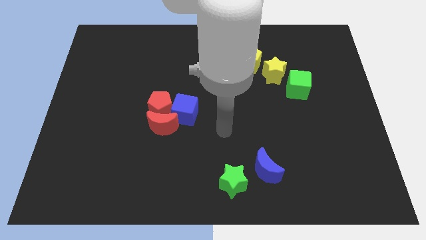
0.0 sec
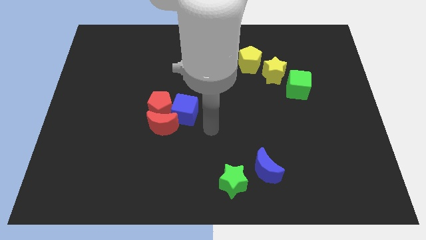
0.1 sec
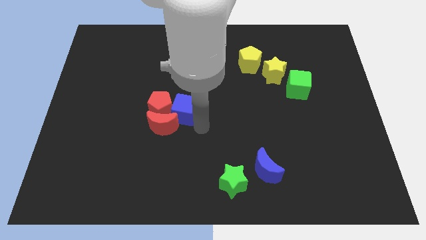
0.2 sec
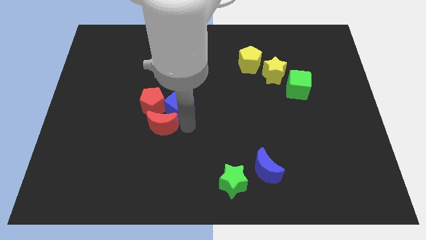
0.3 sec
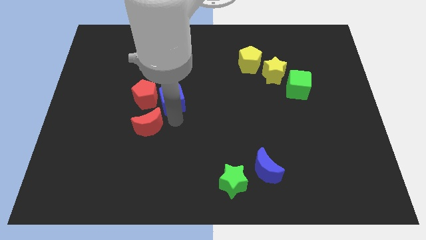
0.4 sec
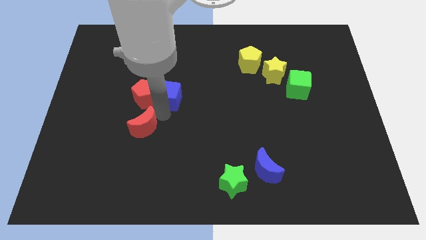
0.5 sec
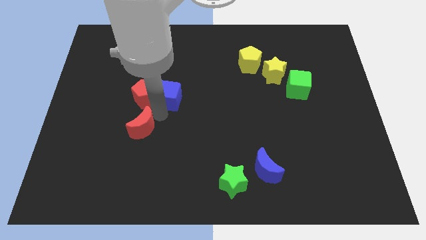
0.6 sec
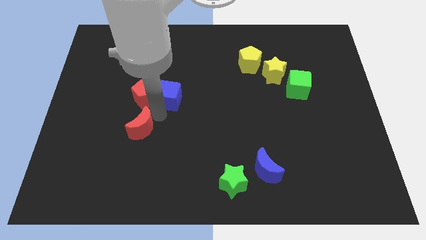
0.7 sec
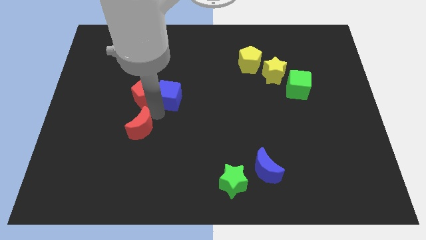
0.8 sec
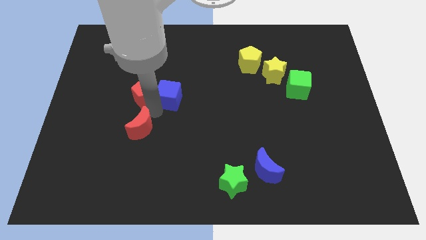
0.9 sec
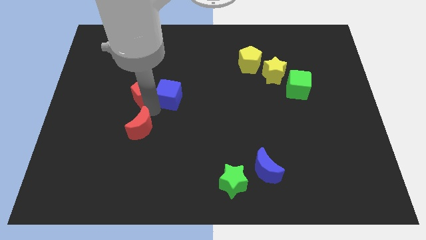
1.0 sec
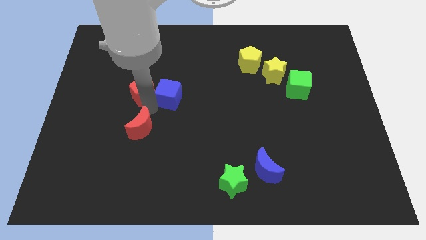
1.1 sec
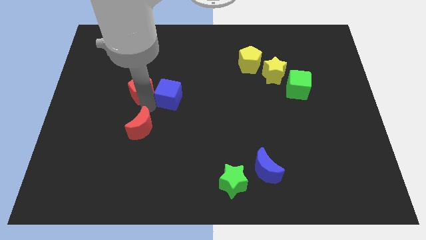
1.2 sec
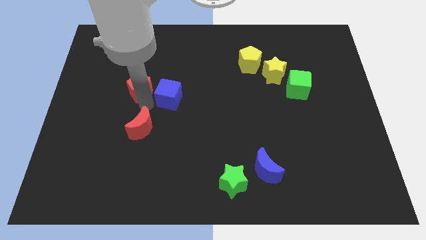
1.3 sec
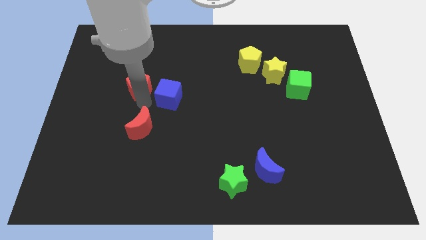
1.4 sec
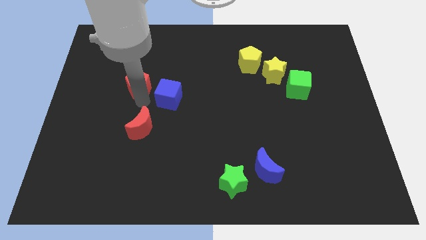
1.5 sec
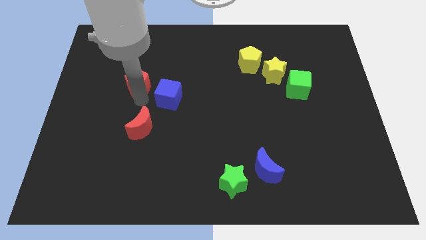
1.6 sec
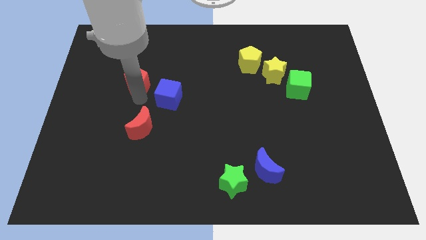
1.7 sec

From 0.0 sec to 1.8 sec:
separate the red pentagon from the red moon and blue cube

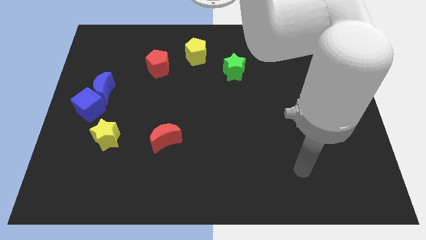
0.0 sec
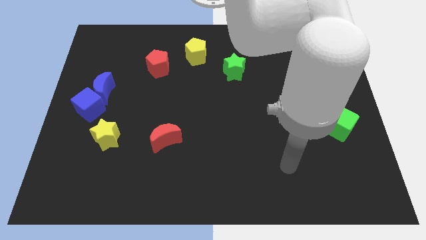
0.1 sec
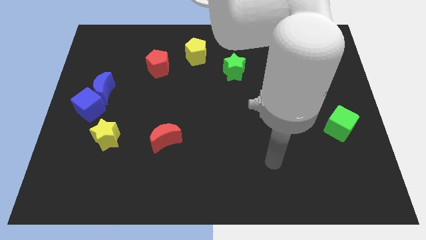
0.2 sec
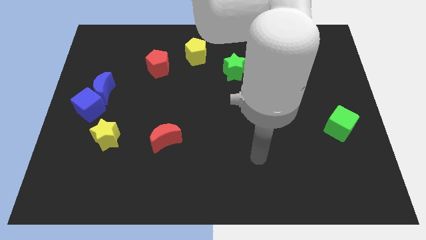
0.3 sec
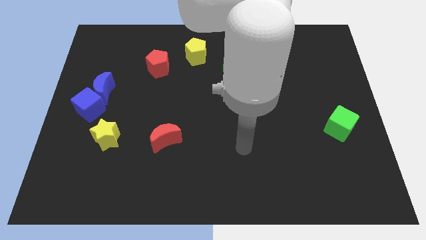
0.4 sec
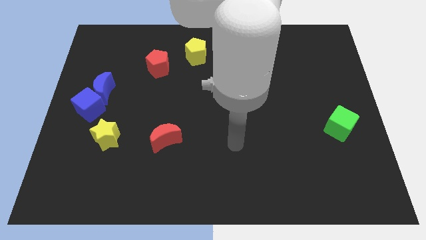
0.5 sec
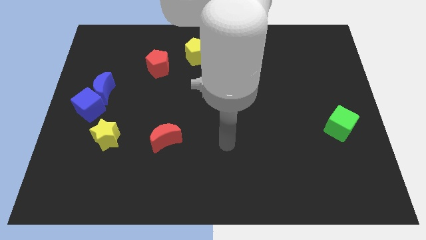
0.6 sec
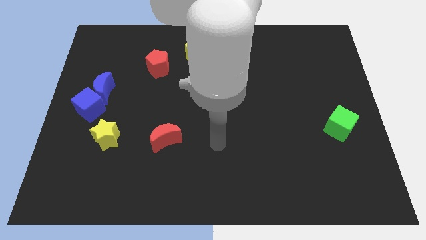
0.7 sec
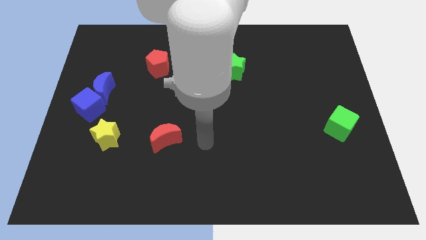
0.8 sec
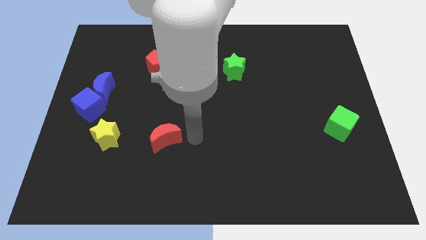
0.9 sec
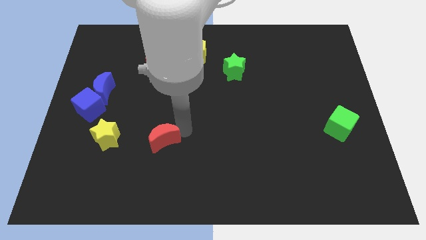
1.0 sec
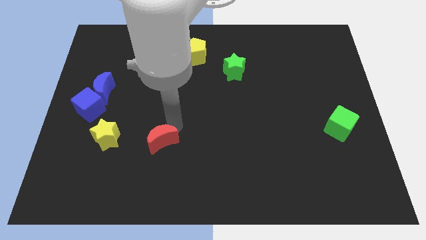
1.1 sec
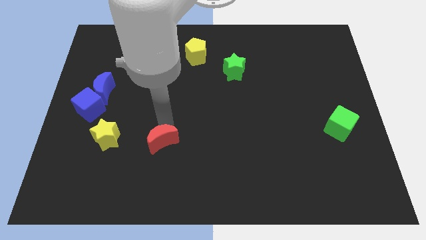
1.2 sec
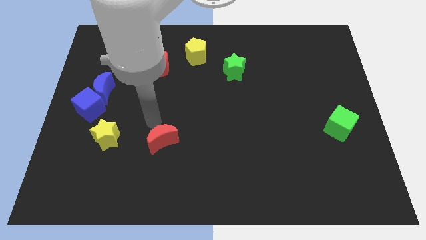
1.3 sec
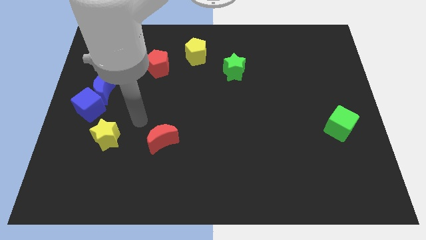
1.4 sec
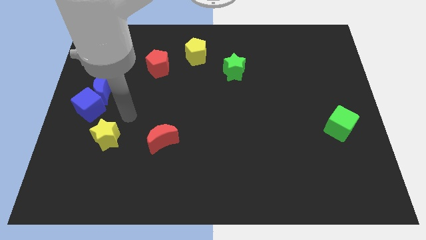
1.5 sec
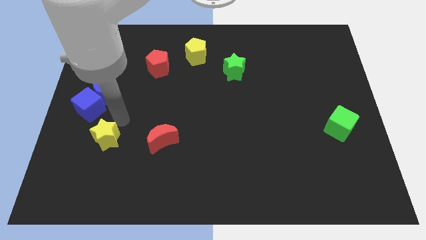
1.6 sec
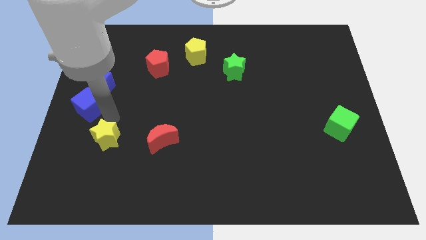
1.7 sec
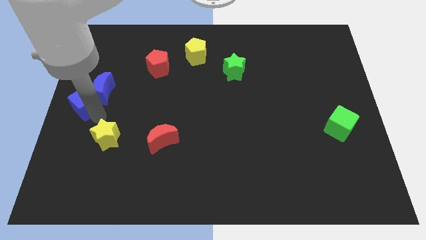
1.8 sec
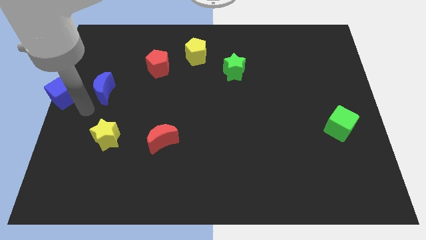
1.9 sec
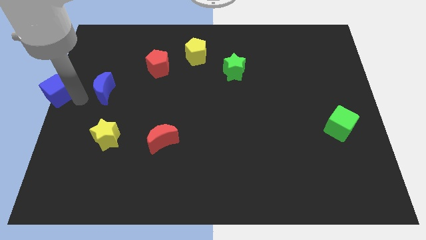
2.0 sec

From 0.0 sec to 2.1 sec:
pull the blue moon apart from the blue cube

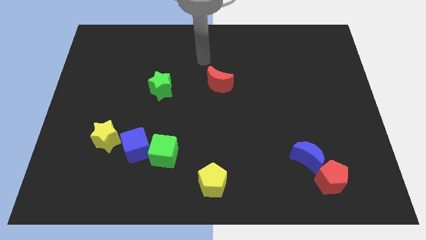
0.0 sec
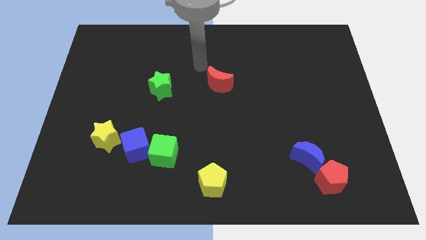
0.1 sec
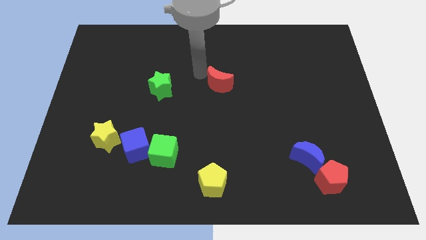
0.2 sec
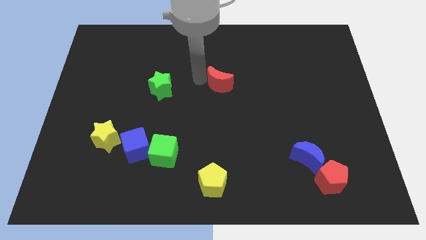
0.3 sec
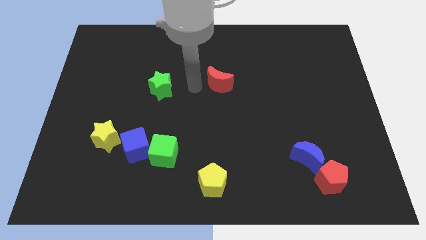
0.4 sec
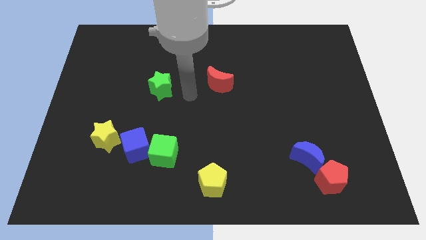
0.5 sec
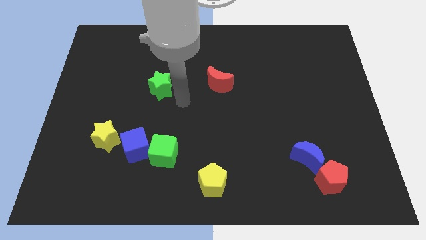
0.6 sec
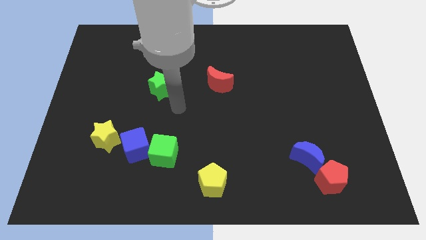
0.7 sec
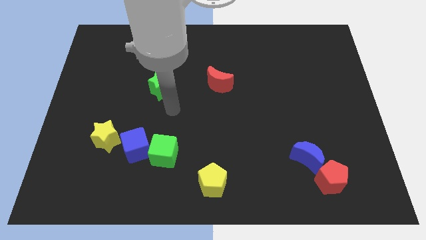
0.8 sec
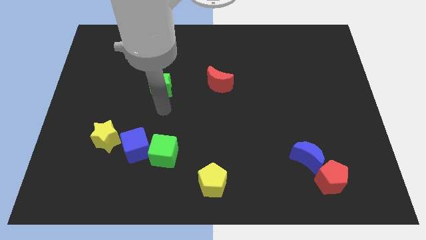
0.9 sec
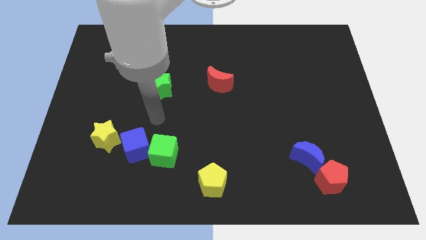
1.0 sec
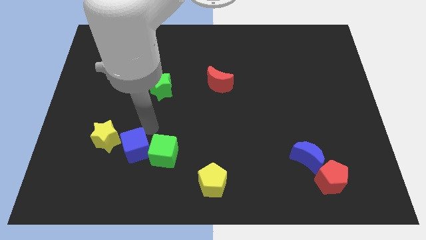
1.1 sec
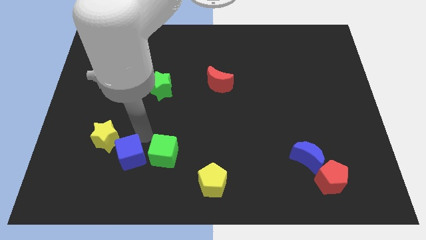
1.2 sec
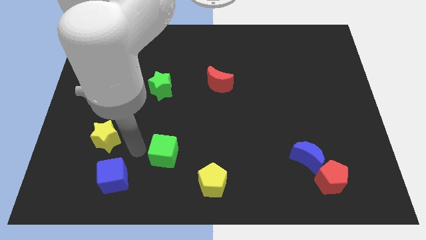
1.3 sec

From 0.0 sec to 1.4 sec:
separate the green cube from the blue cube

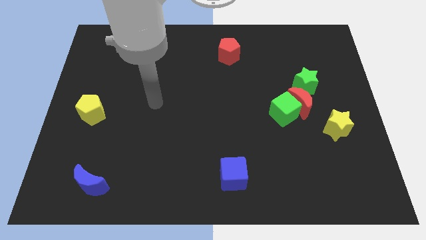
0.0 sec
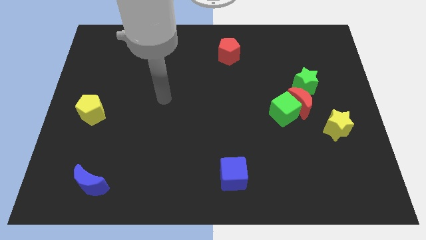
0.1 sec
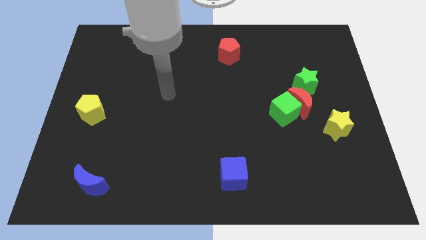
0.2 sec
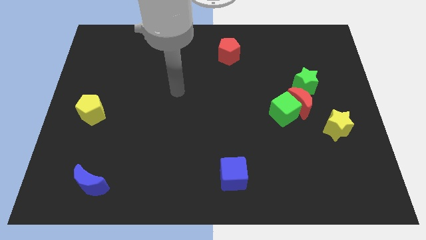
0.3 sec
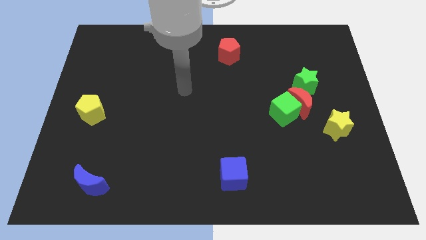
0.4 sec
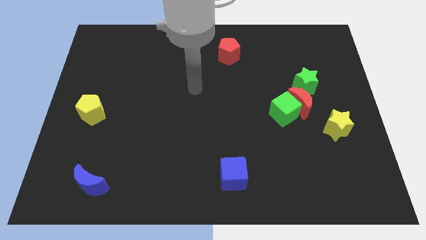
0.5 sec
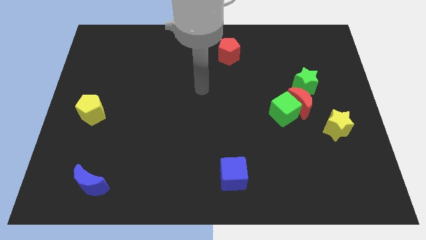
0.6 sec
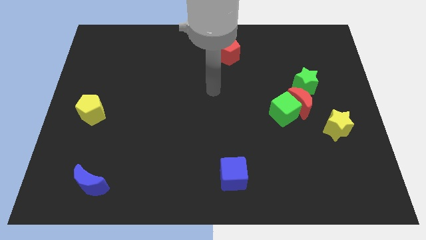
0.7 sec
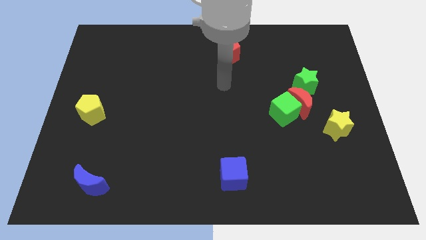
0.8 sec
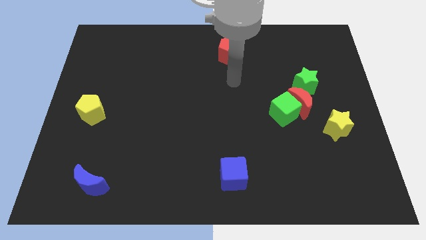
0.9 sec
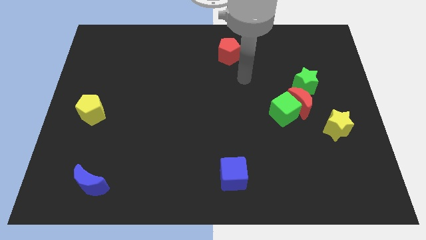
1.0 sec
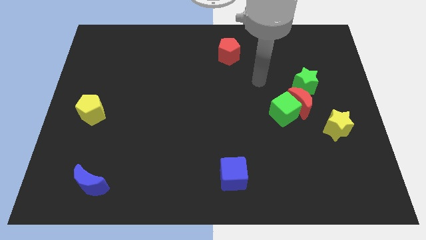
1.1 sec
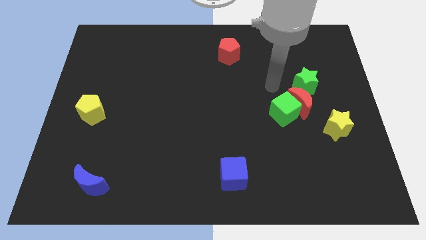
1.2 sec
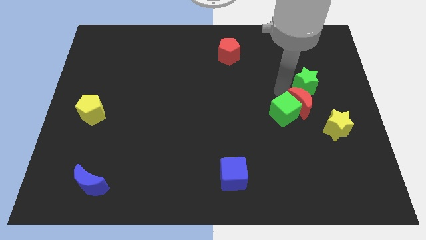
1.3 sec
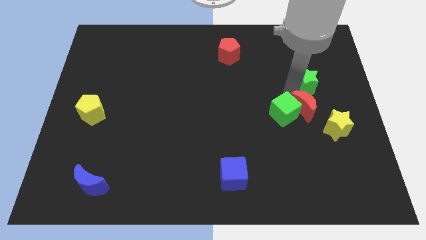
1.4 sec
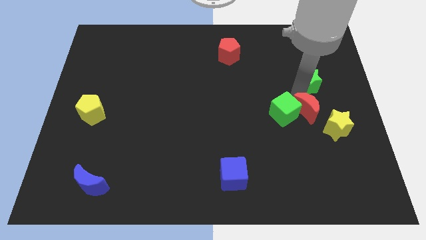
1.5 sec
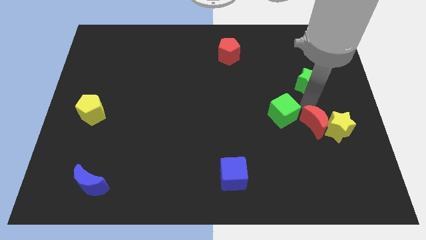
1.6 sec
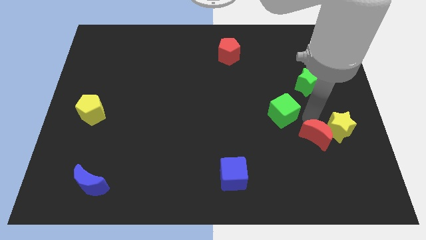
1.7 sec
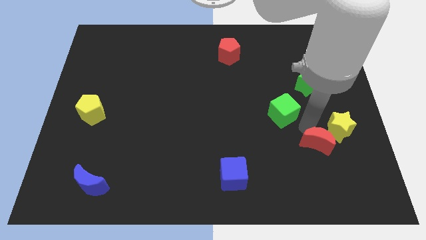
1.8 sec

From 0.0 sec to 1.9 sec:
move the green cube away from the red moon

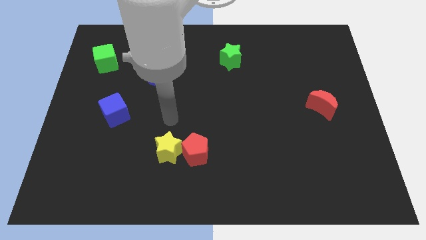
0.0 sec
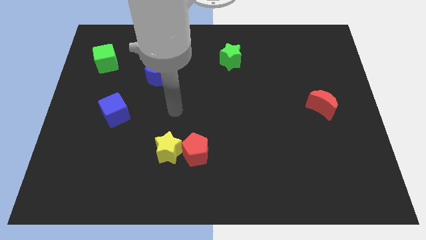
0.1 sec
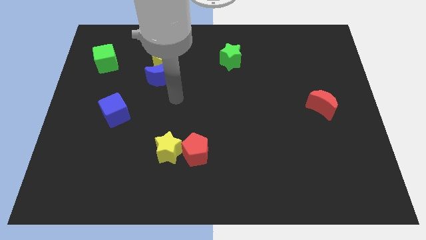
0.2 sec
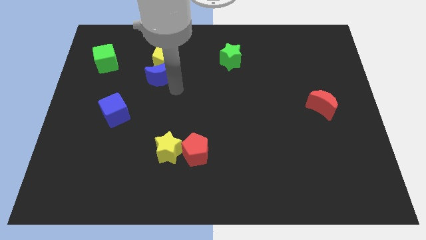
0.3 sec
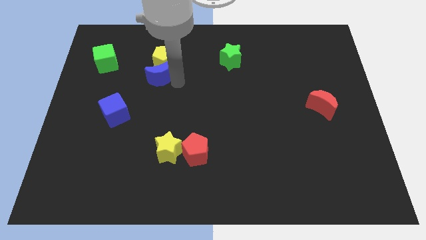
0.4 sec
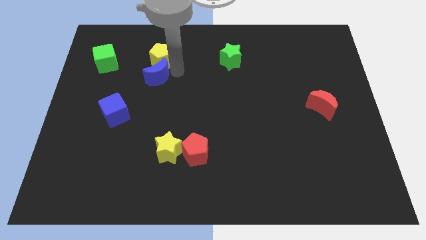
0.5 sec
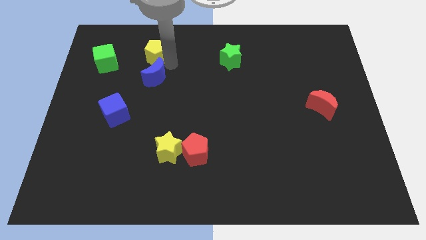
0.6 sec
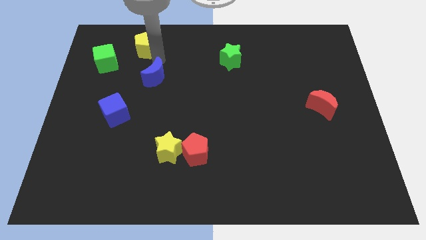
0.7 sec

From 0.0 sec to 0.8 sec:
move the blue moon away from the yellow pentagon

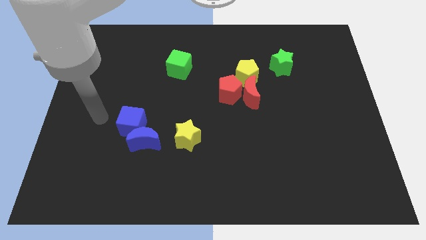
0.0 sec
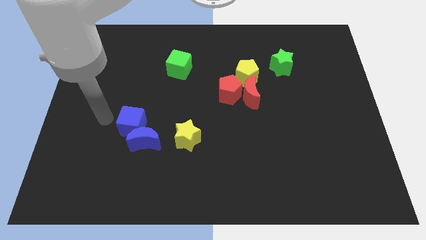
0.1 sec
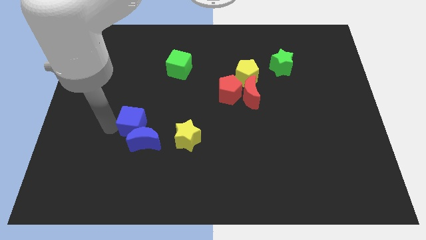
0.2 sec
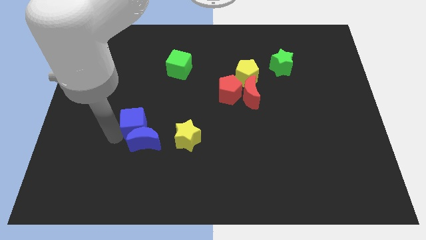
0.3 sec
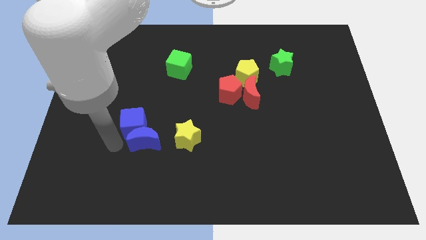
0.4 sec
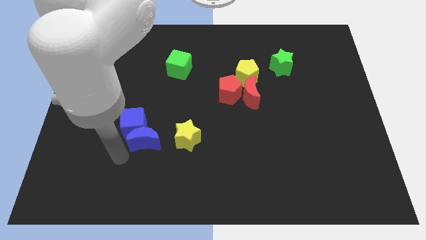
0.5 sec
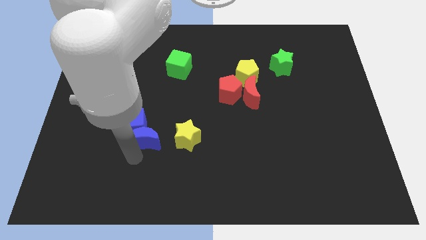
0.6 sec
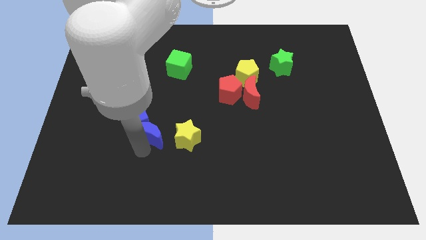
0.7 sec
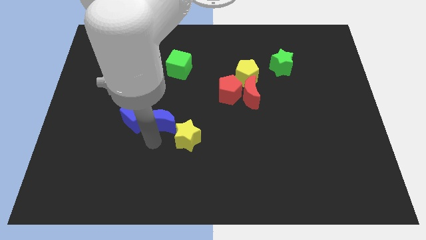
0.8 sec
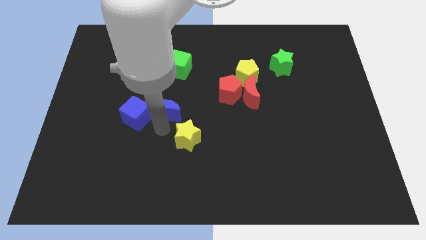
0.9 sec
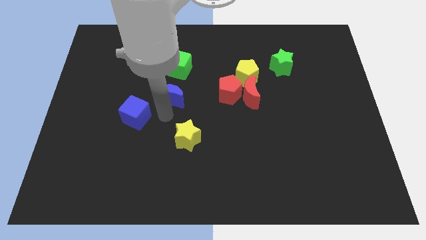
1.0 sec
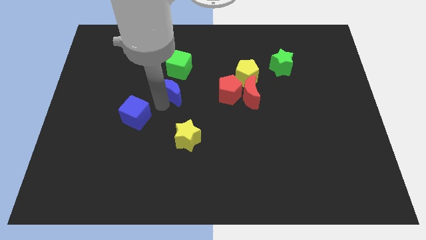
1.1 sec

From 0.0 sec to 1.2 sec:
move the blue cube away from the blue moon
